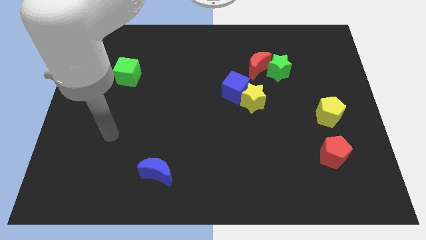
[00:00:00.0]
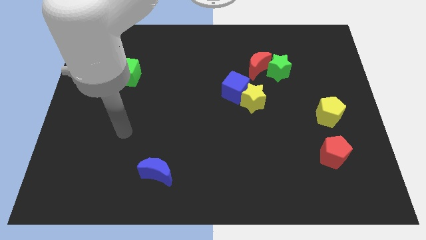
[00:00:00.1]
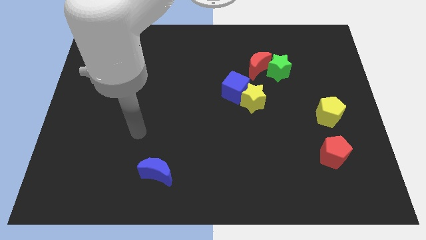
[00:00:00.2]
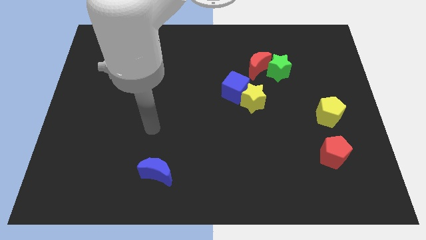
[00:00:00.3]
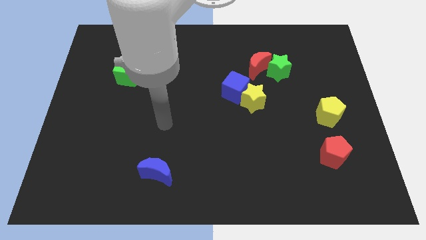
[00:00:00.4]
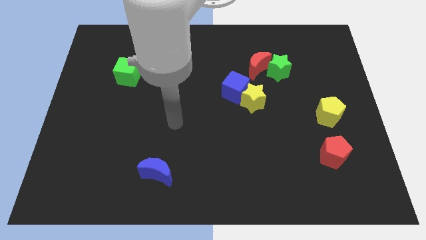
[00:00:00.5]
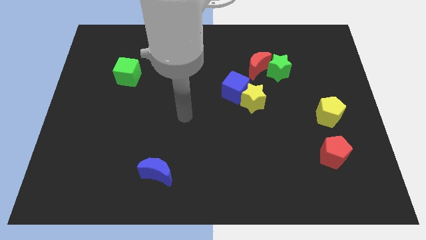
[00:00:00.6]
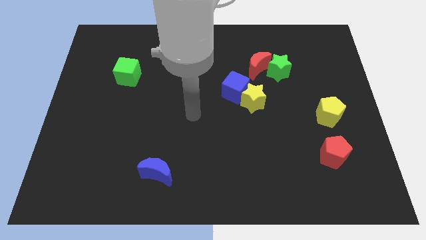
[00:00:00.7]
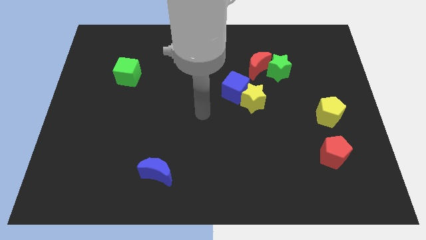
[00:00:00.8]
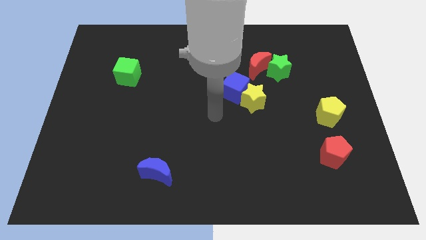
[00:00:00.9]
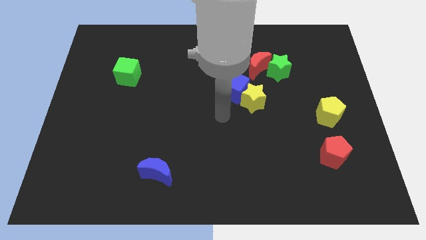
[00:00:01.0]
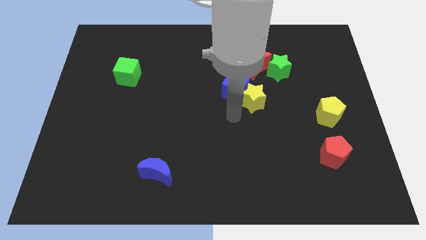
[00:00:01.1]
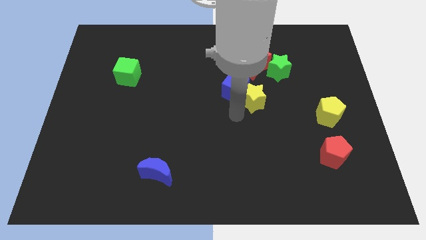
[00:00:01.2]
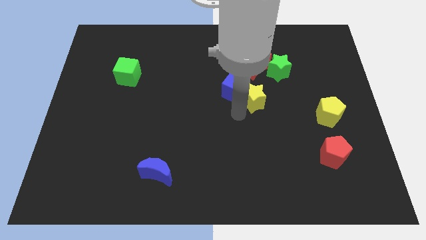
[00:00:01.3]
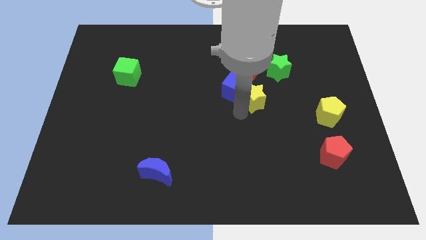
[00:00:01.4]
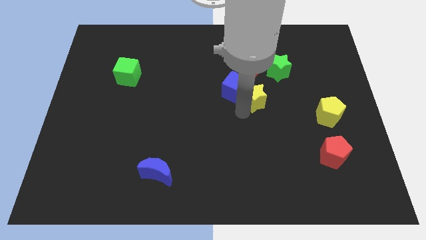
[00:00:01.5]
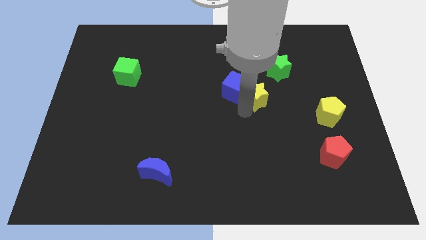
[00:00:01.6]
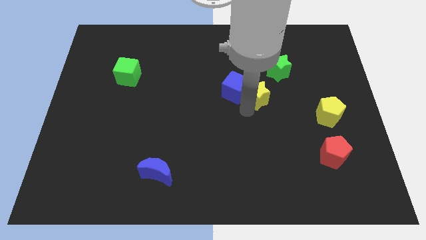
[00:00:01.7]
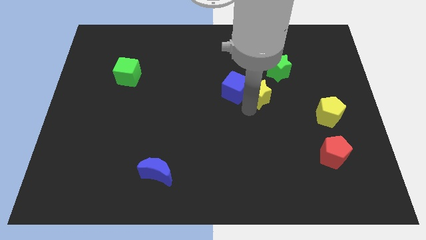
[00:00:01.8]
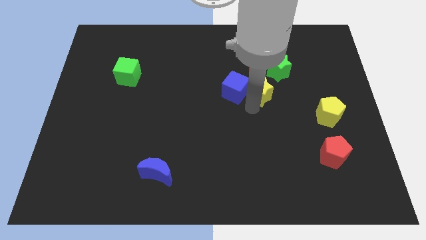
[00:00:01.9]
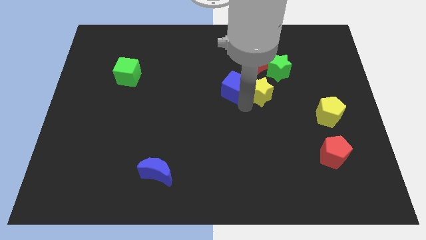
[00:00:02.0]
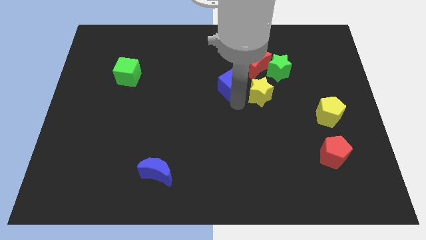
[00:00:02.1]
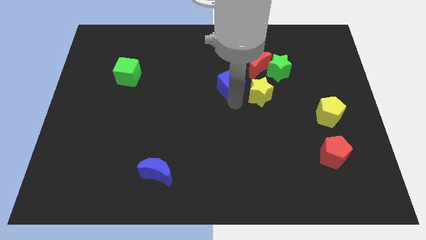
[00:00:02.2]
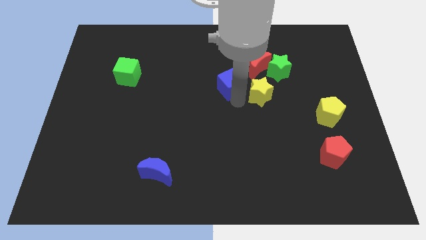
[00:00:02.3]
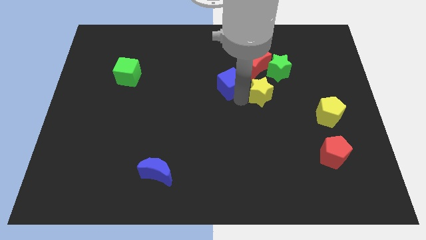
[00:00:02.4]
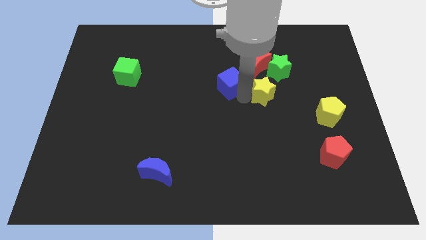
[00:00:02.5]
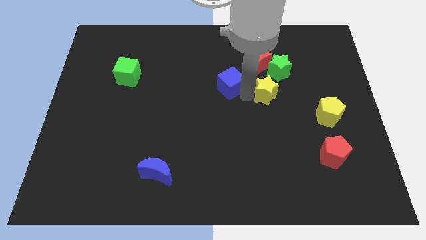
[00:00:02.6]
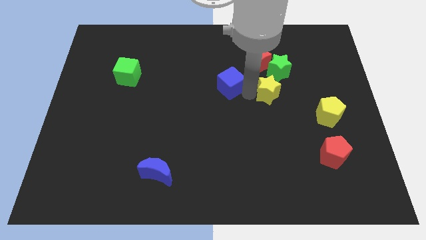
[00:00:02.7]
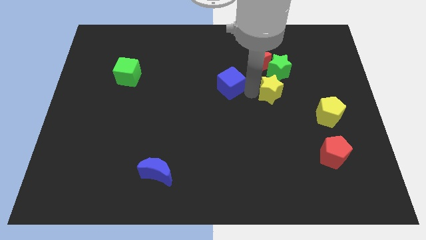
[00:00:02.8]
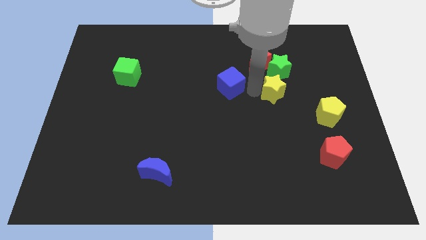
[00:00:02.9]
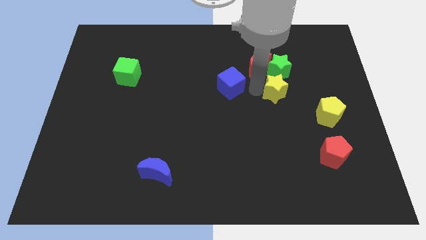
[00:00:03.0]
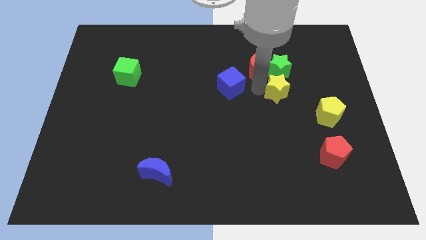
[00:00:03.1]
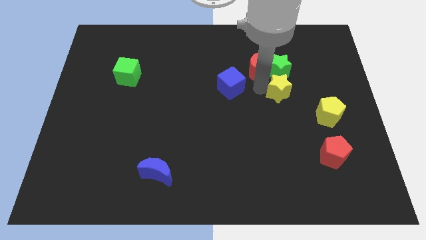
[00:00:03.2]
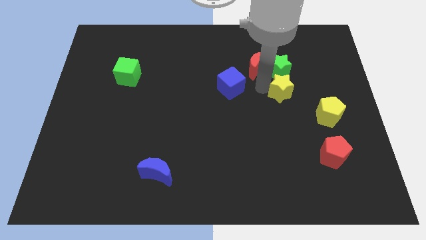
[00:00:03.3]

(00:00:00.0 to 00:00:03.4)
move the yellow star diagonally upwards and to the right somewhat

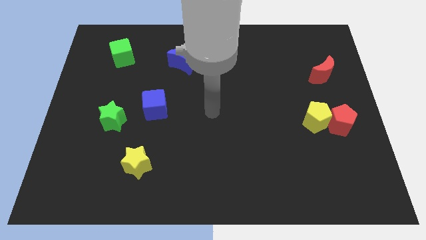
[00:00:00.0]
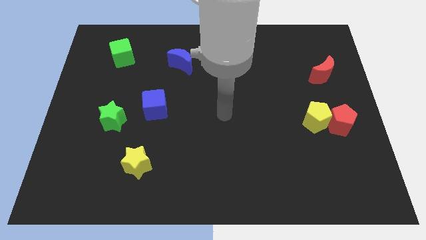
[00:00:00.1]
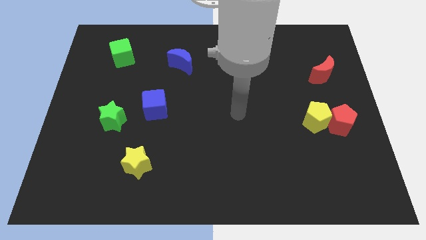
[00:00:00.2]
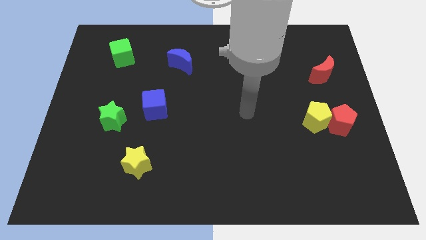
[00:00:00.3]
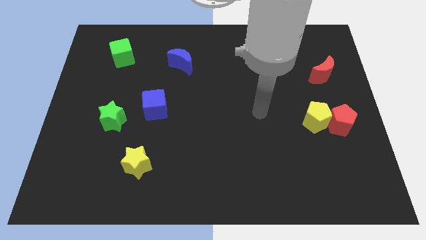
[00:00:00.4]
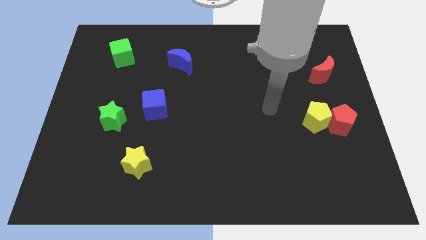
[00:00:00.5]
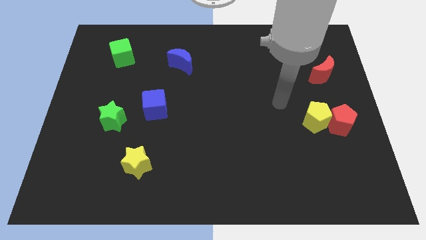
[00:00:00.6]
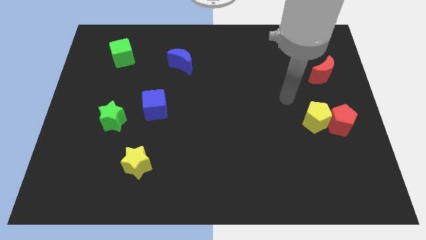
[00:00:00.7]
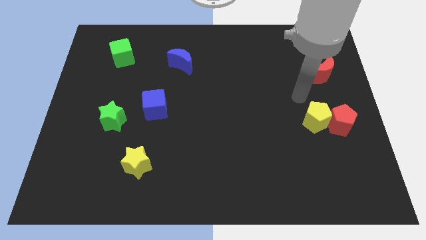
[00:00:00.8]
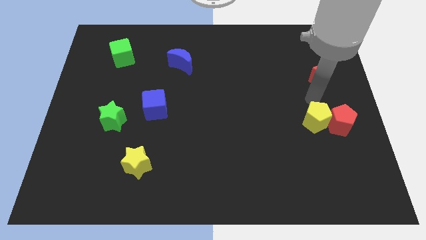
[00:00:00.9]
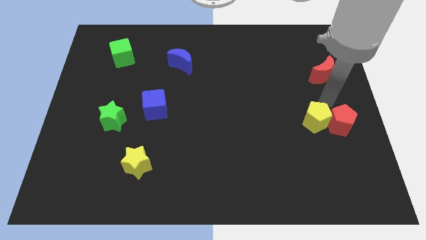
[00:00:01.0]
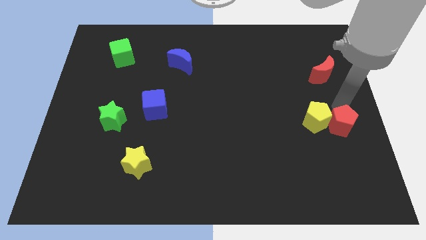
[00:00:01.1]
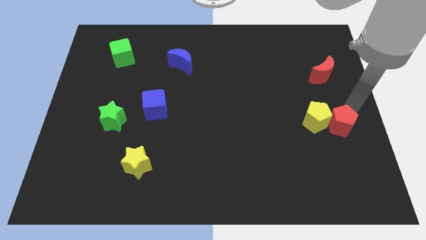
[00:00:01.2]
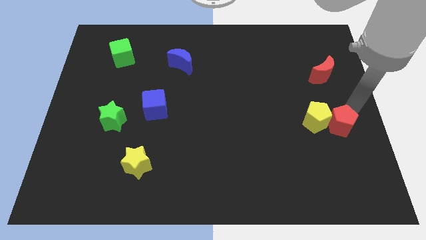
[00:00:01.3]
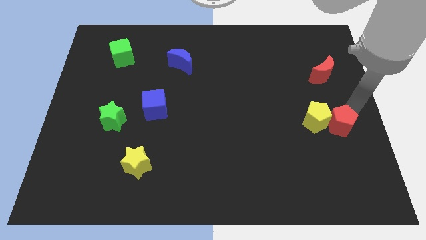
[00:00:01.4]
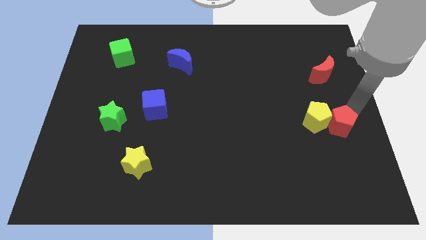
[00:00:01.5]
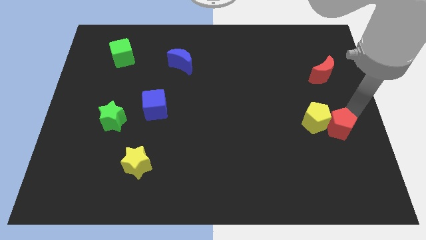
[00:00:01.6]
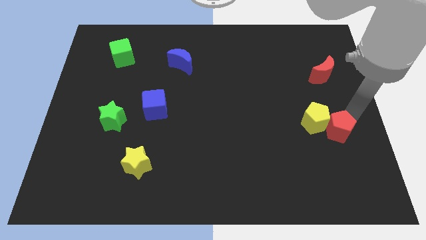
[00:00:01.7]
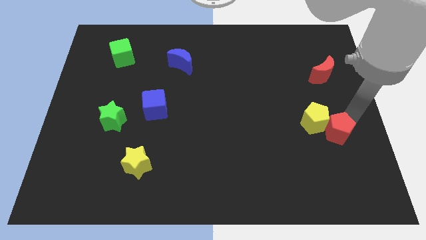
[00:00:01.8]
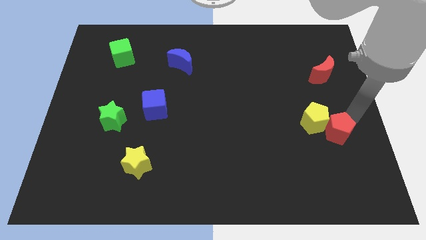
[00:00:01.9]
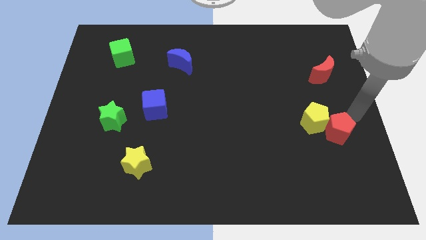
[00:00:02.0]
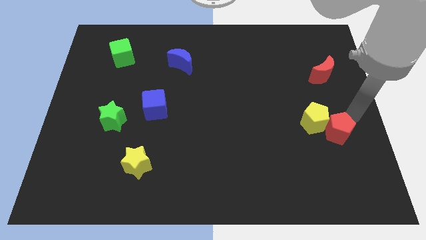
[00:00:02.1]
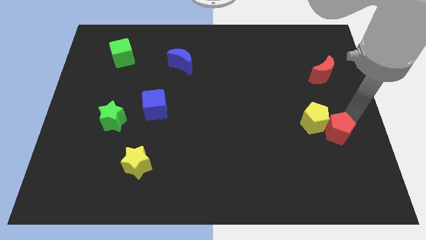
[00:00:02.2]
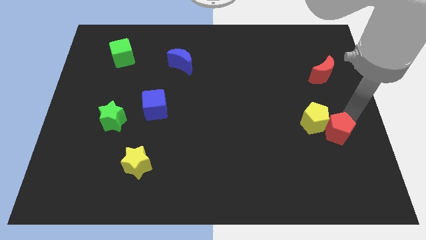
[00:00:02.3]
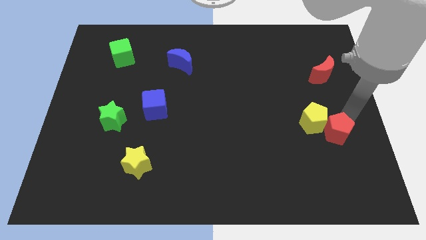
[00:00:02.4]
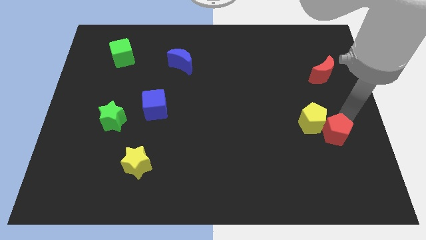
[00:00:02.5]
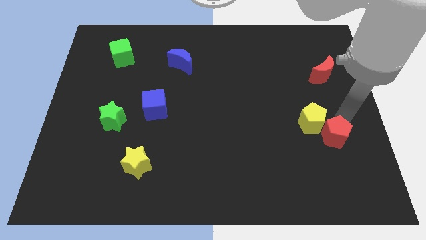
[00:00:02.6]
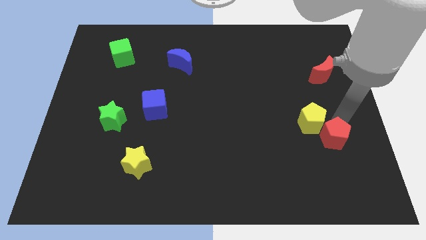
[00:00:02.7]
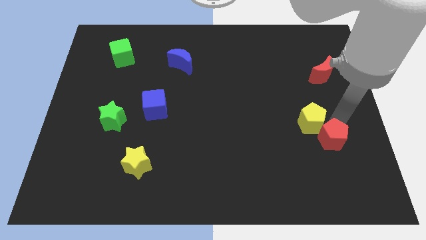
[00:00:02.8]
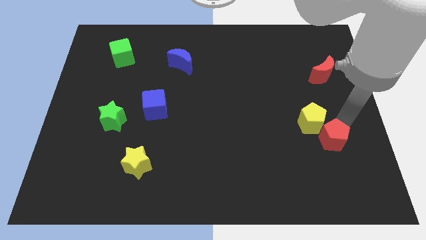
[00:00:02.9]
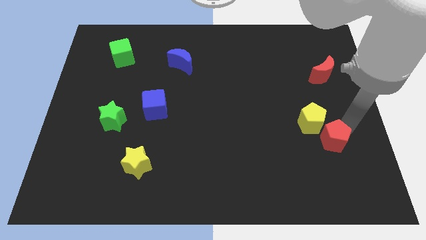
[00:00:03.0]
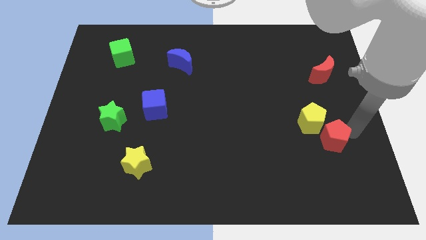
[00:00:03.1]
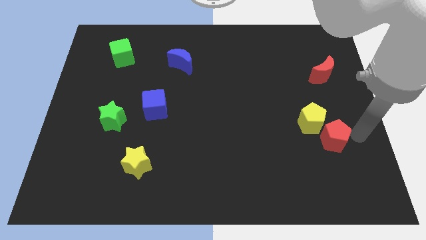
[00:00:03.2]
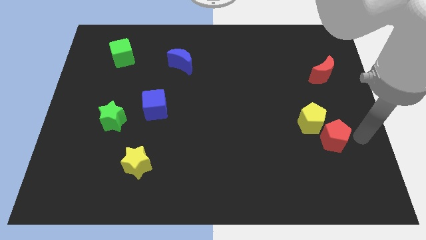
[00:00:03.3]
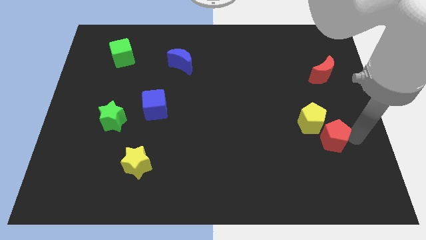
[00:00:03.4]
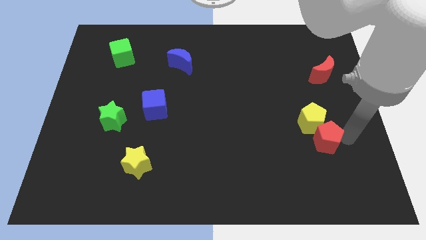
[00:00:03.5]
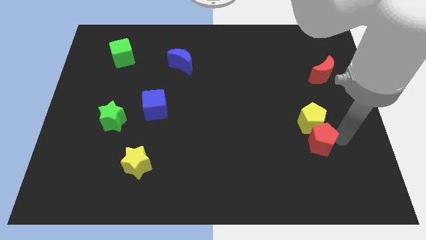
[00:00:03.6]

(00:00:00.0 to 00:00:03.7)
slide the red pentagon diagonally downwards and to the left a bit

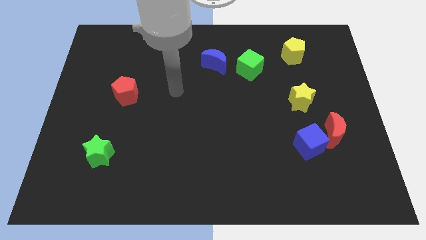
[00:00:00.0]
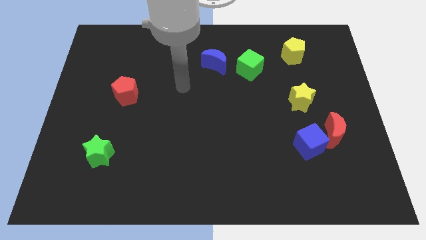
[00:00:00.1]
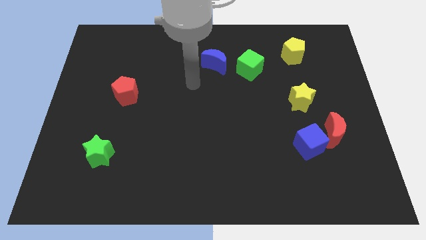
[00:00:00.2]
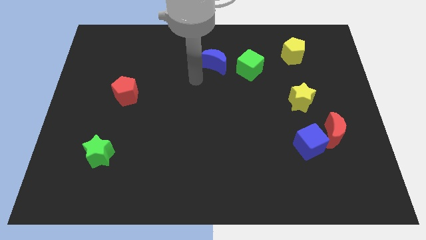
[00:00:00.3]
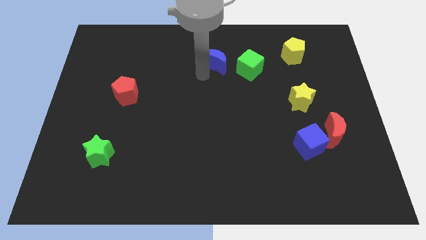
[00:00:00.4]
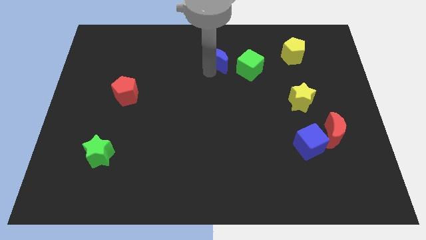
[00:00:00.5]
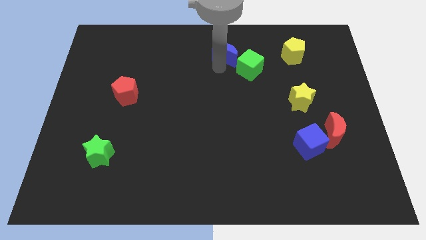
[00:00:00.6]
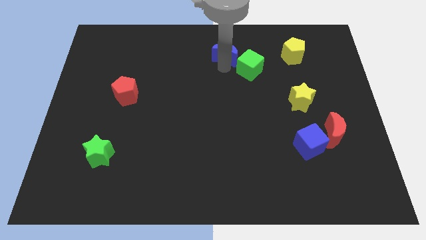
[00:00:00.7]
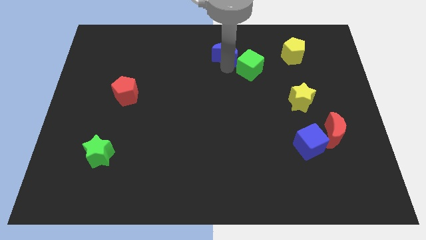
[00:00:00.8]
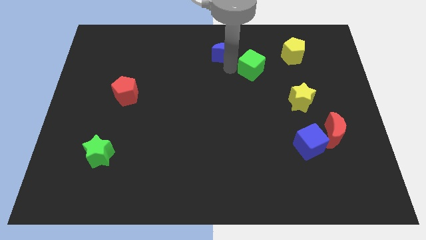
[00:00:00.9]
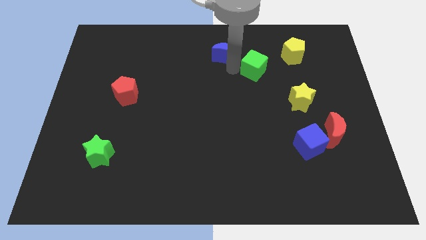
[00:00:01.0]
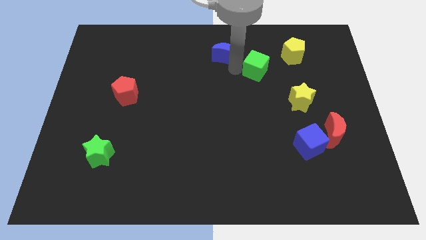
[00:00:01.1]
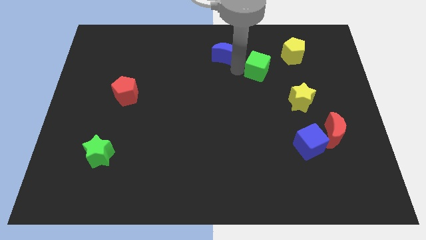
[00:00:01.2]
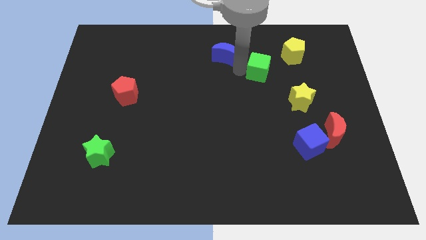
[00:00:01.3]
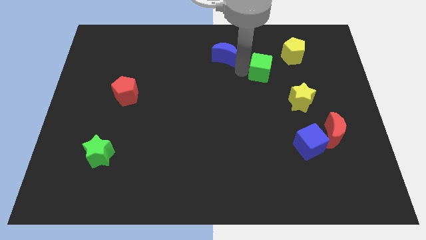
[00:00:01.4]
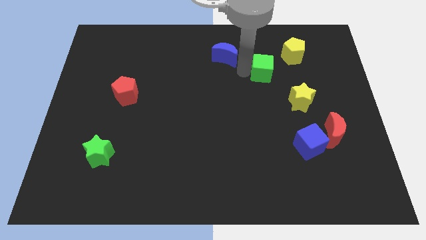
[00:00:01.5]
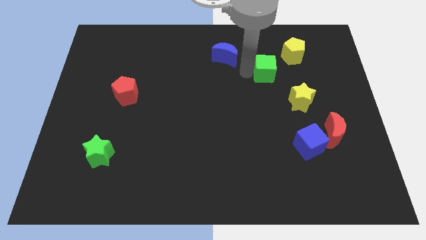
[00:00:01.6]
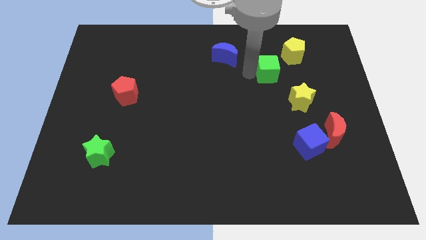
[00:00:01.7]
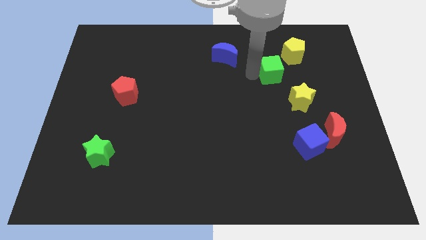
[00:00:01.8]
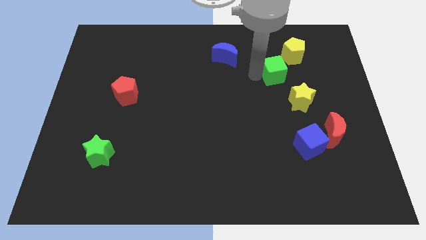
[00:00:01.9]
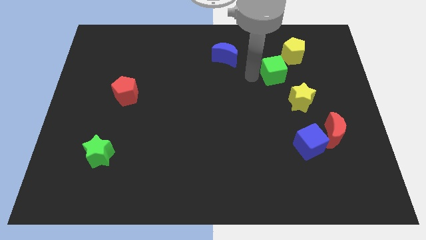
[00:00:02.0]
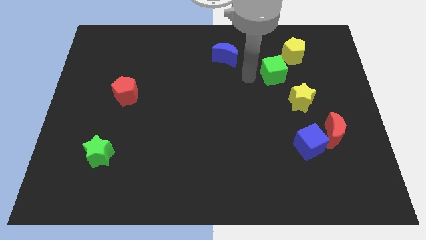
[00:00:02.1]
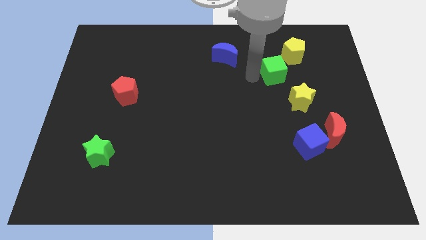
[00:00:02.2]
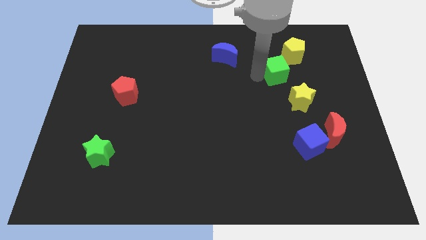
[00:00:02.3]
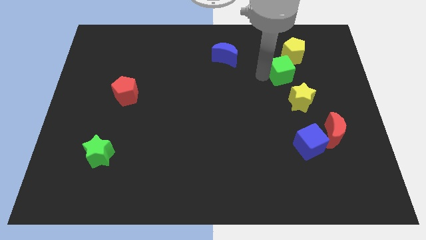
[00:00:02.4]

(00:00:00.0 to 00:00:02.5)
slide the green cube right somewhat
